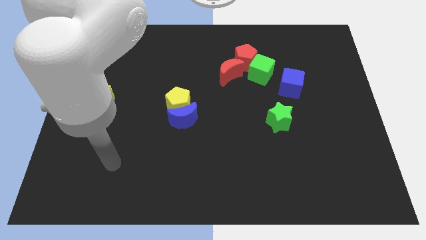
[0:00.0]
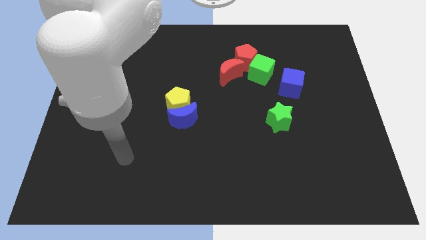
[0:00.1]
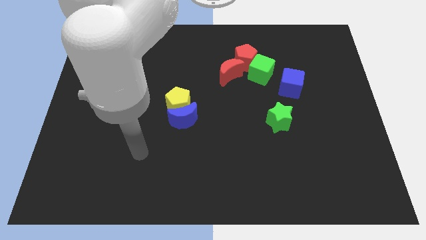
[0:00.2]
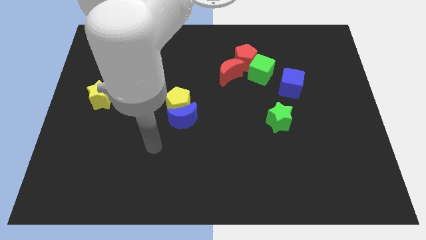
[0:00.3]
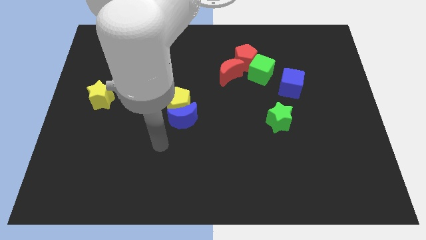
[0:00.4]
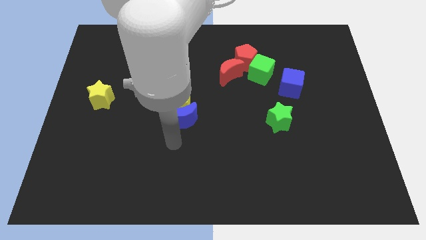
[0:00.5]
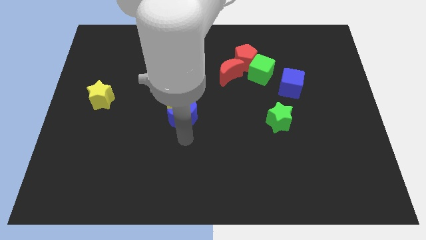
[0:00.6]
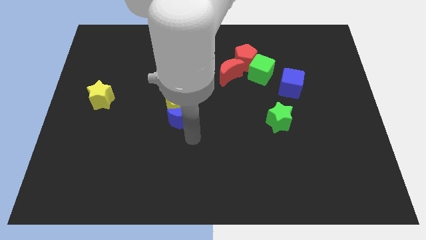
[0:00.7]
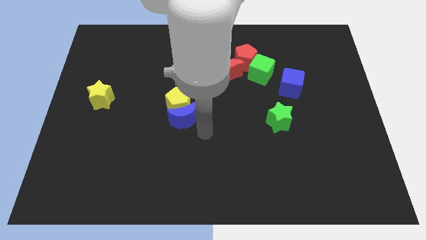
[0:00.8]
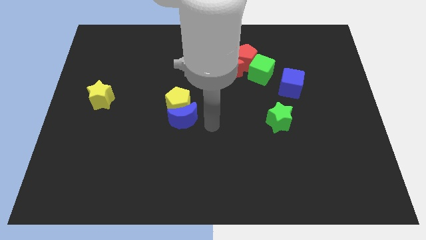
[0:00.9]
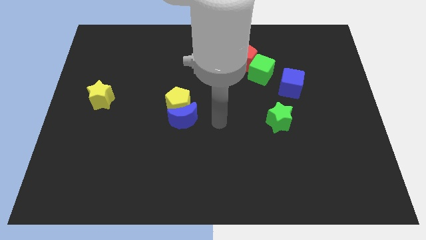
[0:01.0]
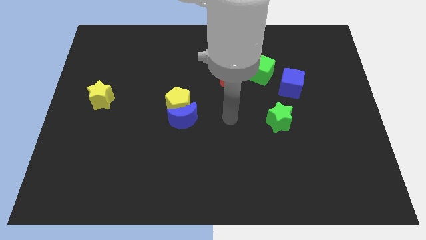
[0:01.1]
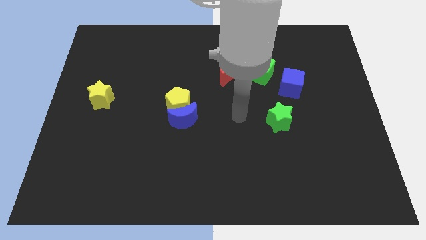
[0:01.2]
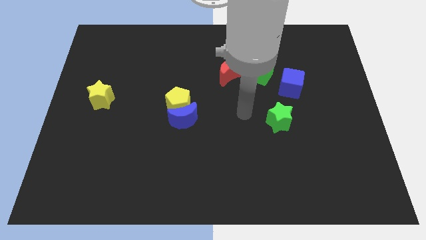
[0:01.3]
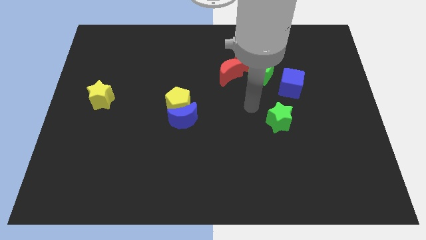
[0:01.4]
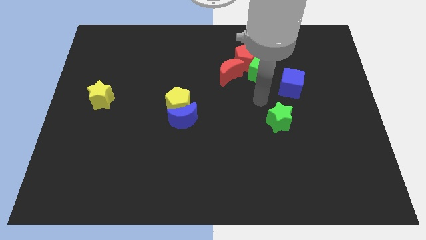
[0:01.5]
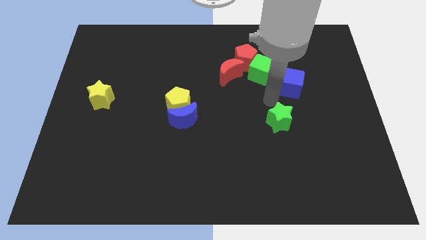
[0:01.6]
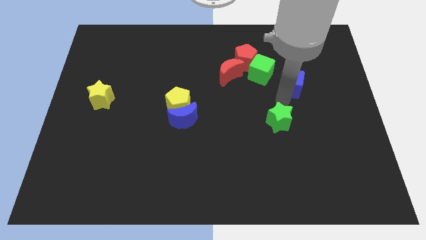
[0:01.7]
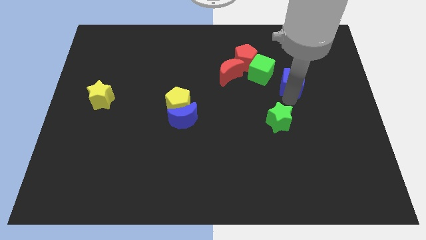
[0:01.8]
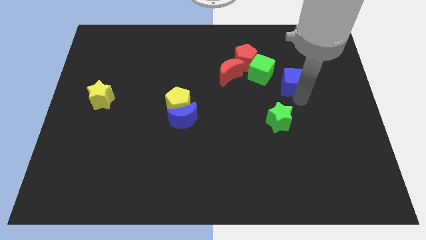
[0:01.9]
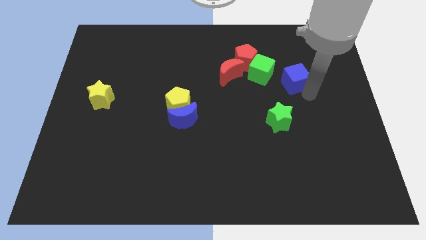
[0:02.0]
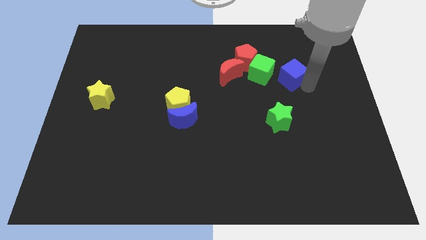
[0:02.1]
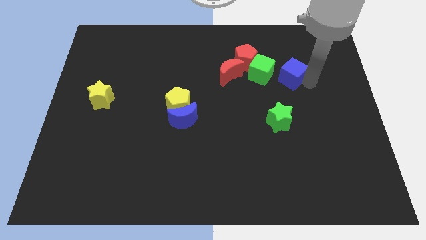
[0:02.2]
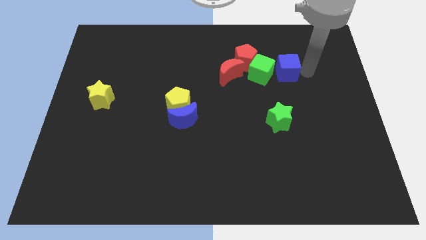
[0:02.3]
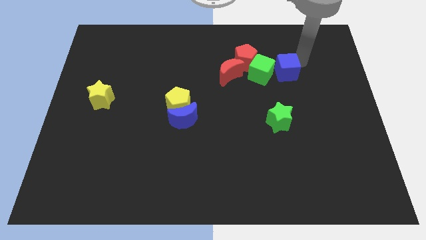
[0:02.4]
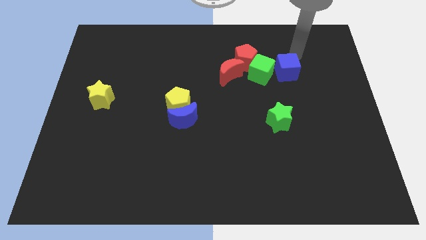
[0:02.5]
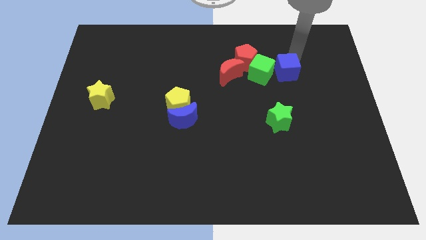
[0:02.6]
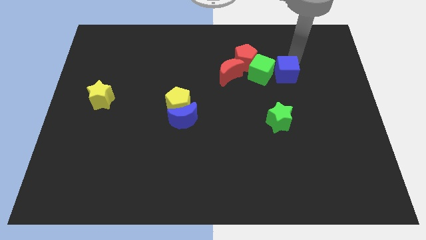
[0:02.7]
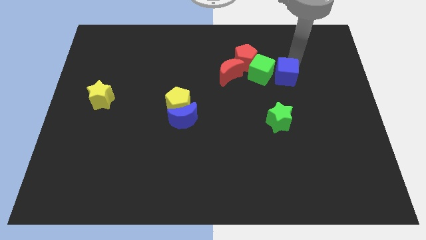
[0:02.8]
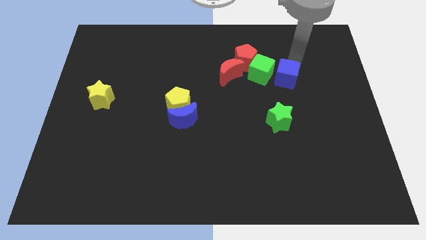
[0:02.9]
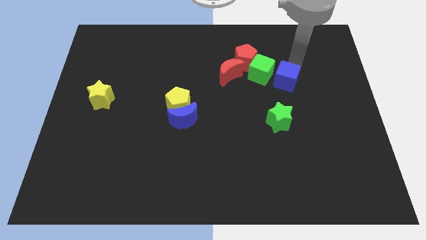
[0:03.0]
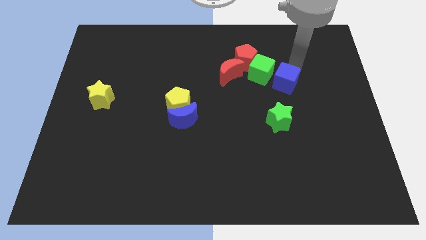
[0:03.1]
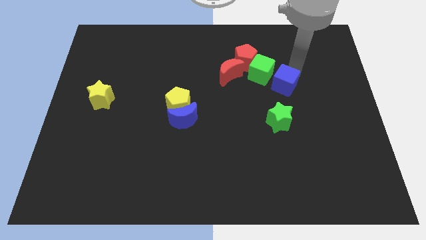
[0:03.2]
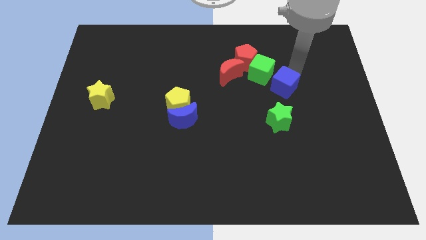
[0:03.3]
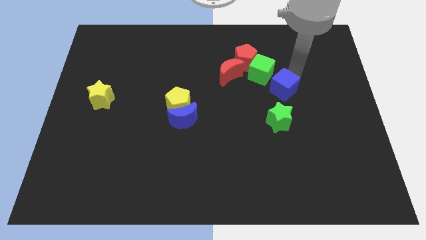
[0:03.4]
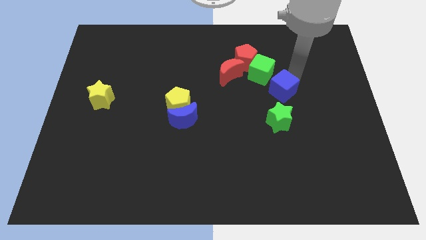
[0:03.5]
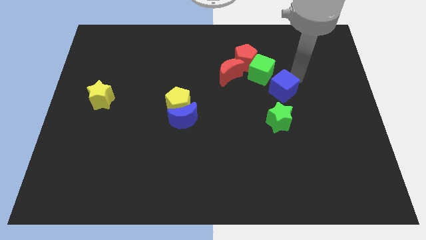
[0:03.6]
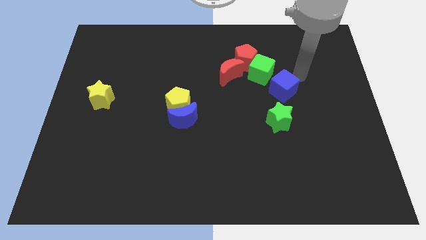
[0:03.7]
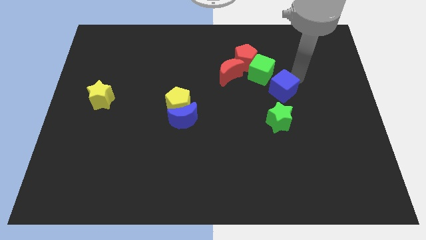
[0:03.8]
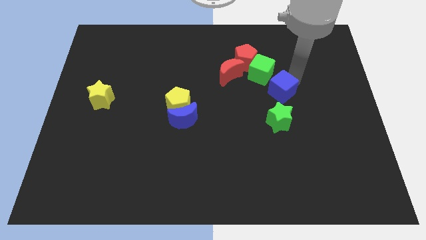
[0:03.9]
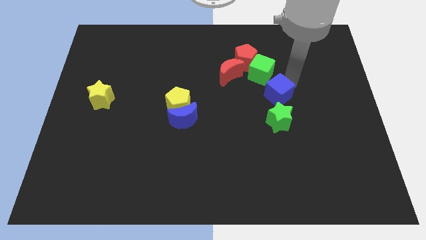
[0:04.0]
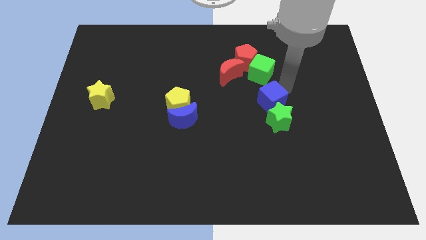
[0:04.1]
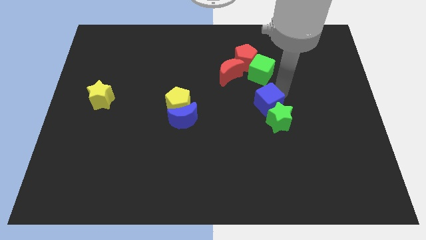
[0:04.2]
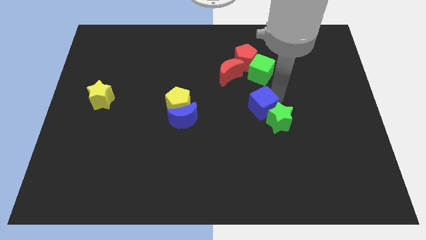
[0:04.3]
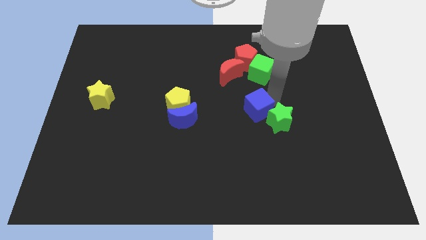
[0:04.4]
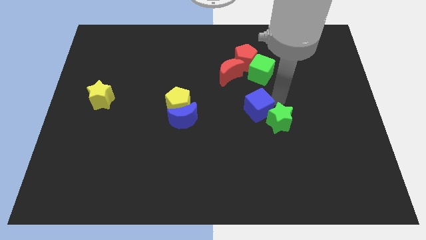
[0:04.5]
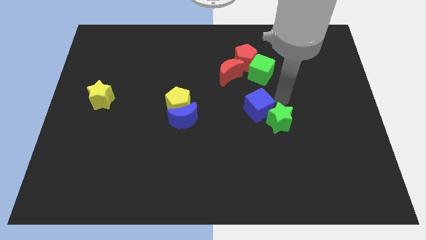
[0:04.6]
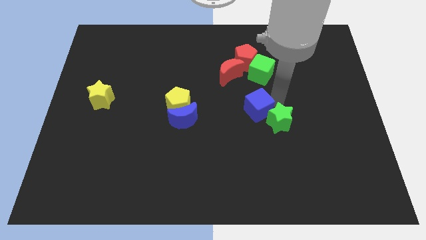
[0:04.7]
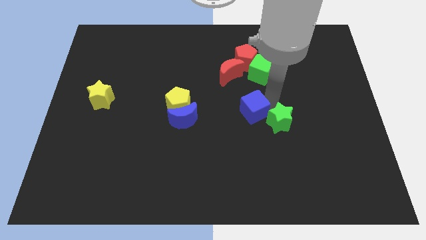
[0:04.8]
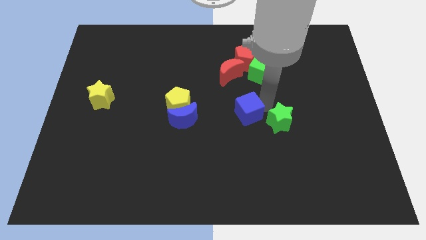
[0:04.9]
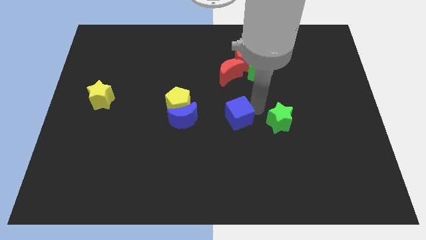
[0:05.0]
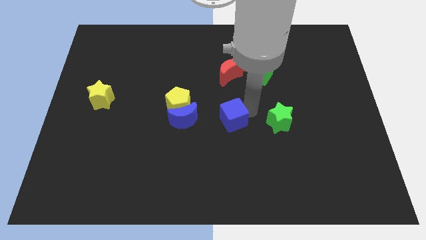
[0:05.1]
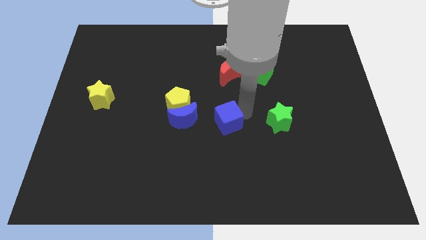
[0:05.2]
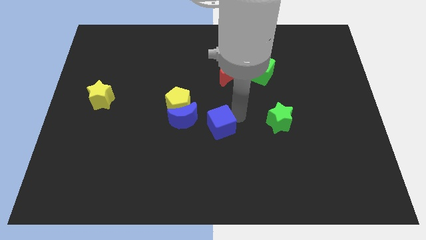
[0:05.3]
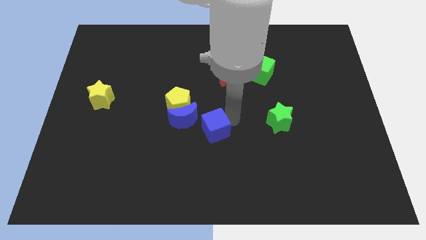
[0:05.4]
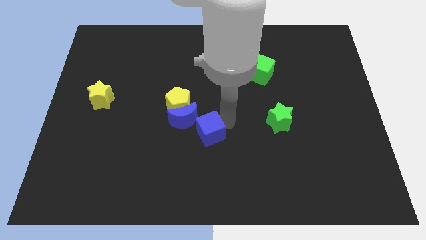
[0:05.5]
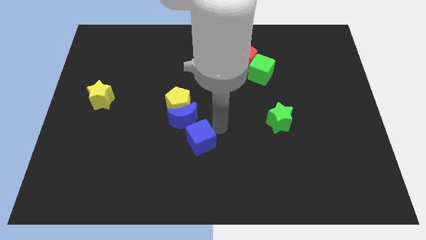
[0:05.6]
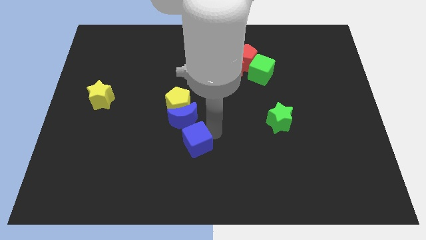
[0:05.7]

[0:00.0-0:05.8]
move the blue cube below the yellow pentagon
